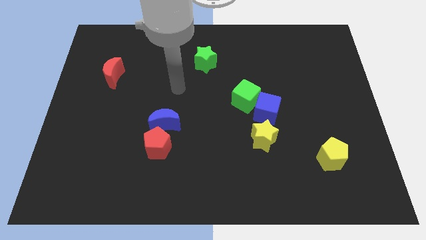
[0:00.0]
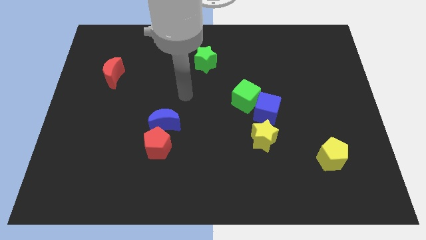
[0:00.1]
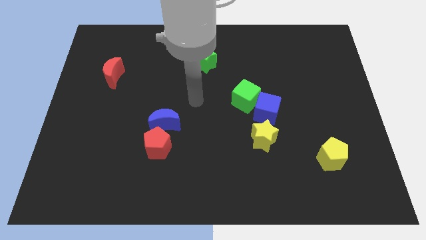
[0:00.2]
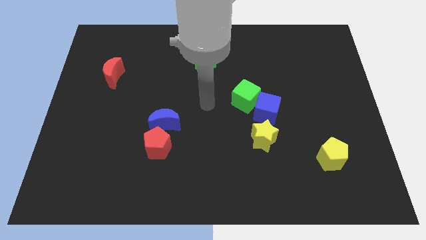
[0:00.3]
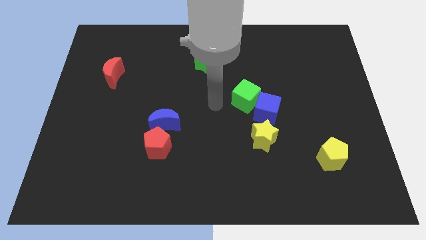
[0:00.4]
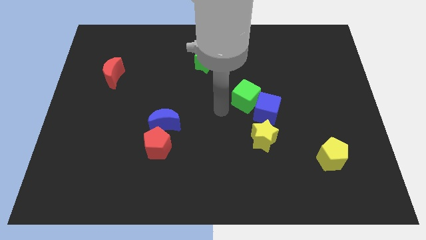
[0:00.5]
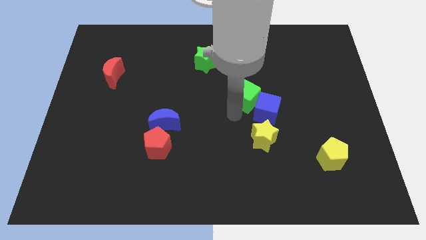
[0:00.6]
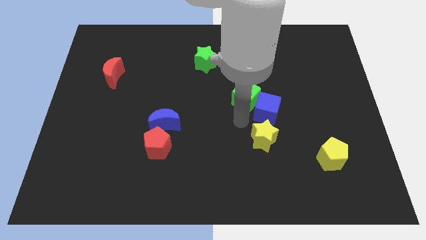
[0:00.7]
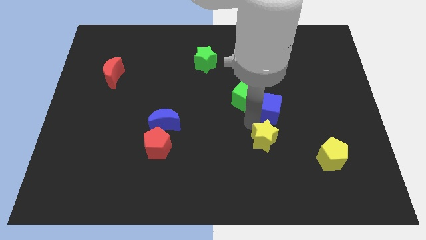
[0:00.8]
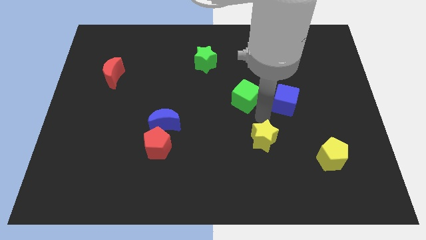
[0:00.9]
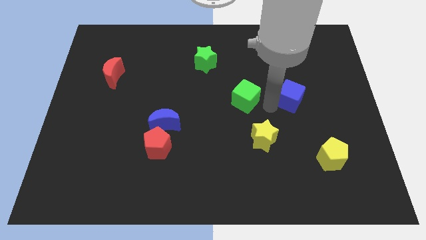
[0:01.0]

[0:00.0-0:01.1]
separate the green cube from the blue cube

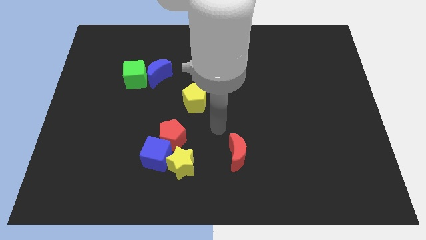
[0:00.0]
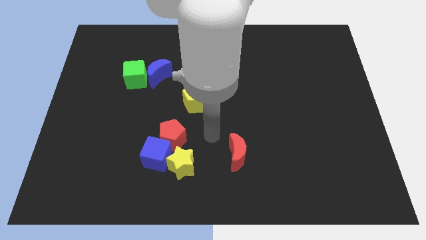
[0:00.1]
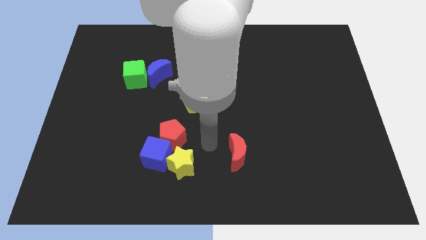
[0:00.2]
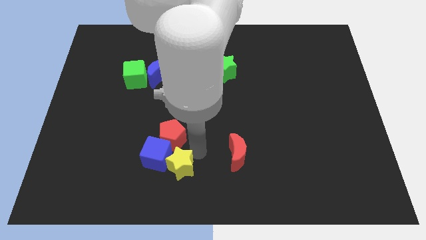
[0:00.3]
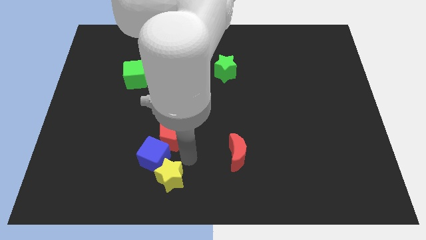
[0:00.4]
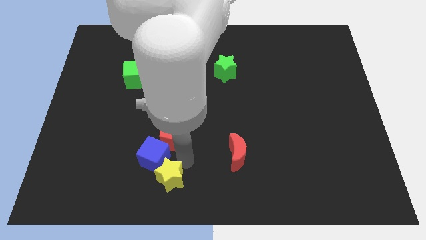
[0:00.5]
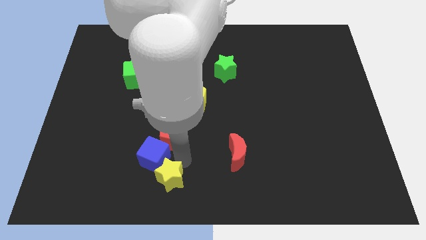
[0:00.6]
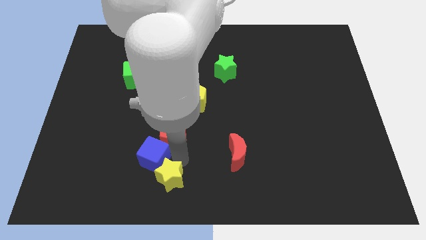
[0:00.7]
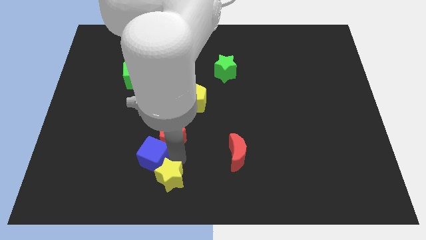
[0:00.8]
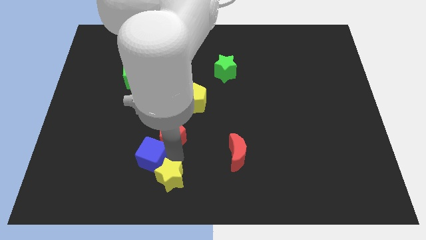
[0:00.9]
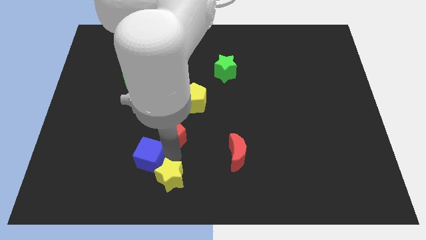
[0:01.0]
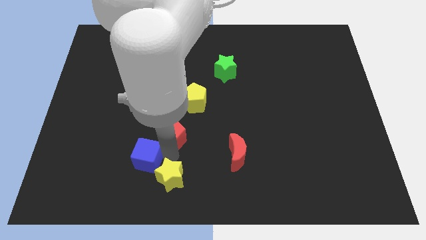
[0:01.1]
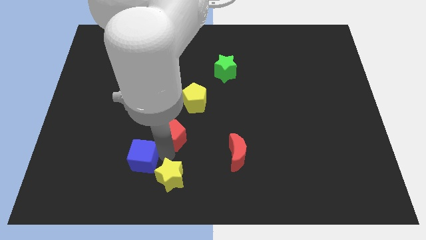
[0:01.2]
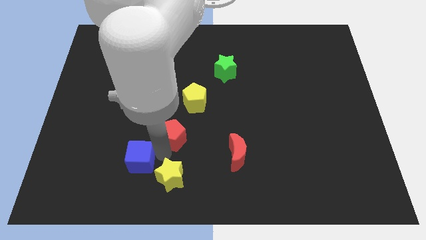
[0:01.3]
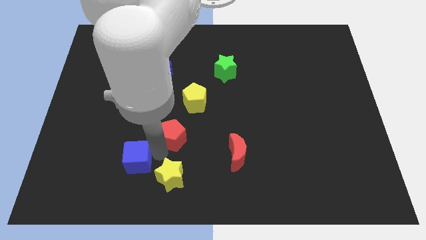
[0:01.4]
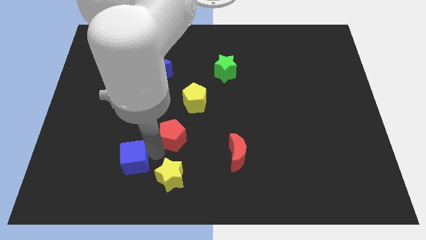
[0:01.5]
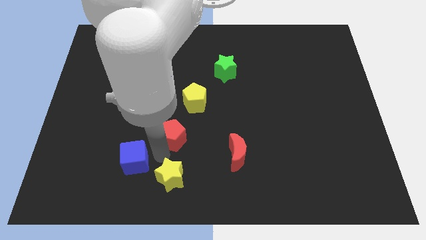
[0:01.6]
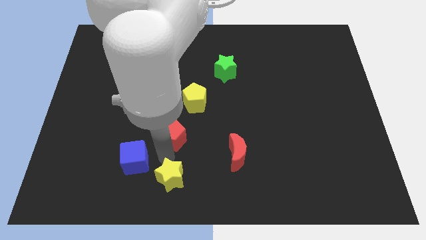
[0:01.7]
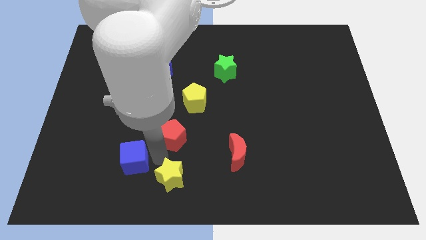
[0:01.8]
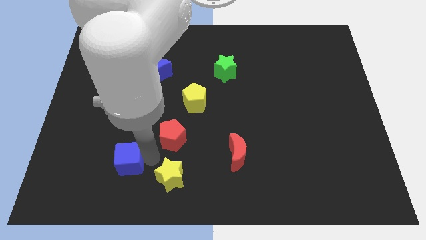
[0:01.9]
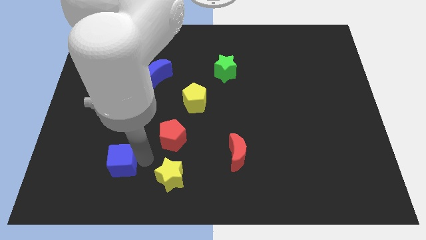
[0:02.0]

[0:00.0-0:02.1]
separate the blue cube from the red pentagon and yellow star

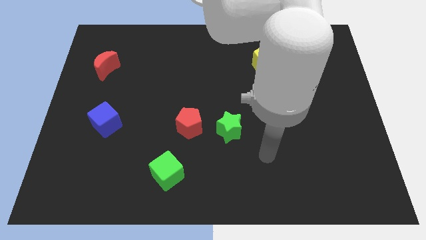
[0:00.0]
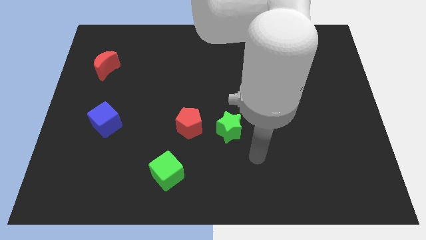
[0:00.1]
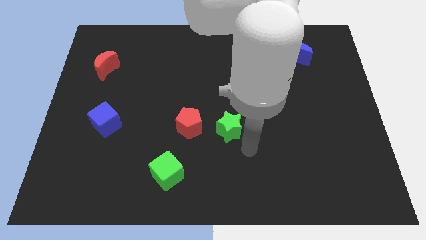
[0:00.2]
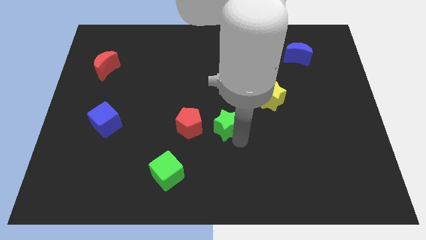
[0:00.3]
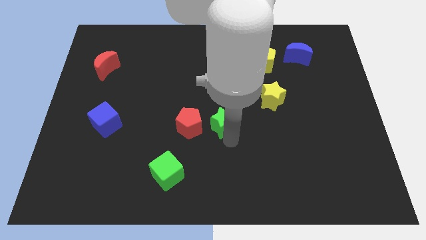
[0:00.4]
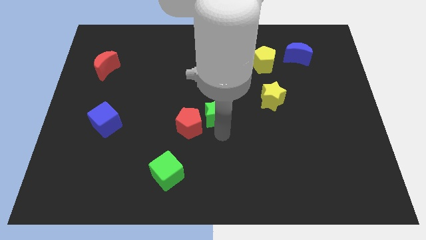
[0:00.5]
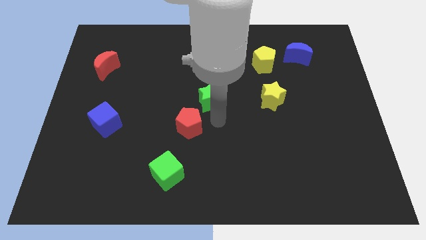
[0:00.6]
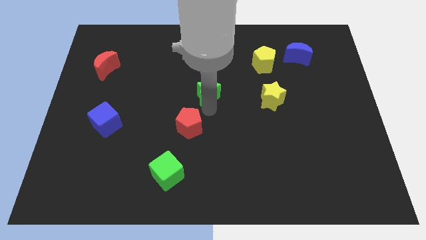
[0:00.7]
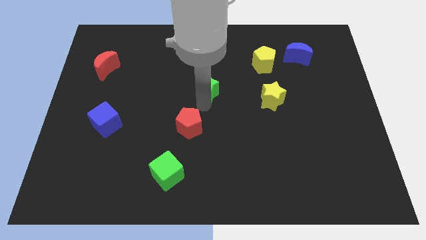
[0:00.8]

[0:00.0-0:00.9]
move the red pentagon away from the green star

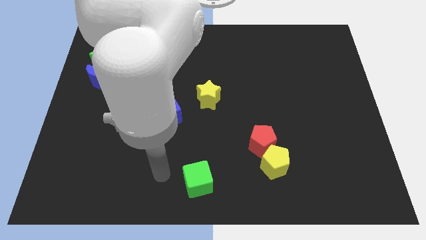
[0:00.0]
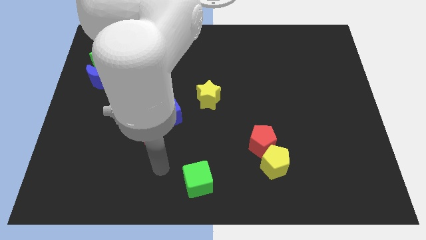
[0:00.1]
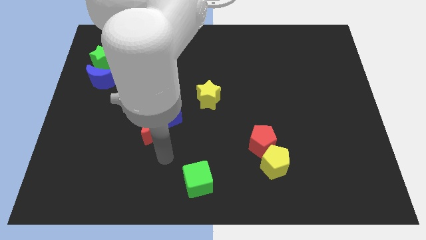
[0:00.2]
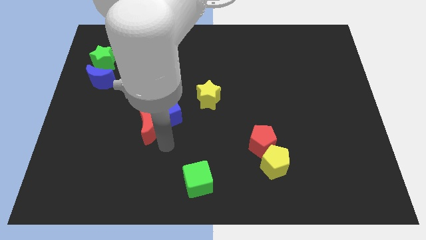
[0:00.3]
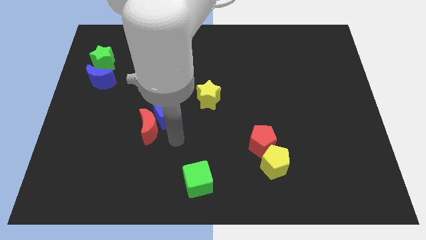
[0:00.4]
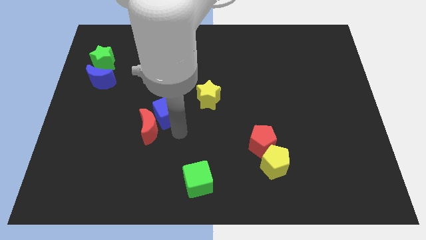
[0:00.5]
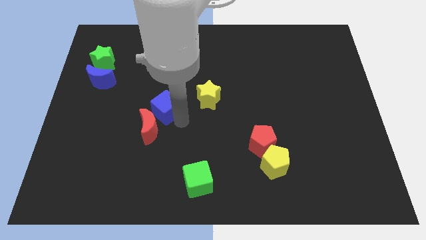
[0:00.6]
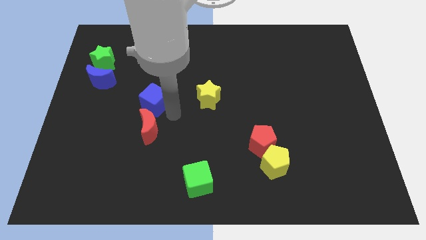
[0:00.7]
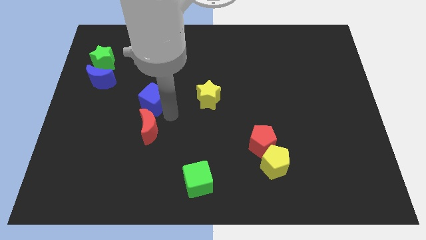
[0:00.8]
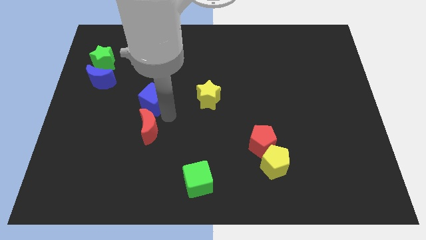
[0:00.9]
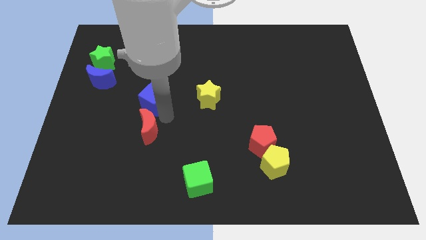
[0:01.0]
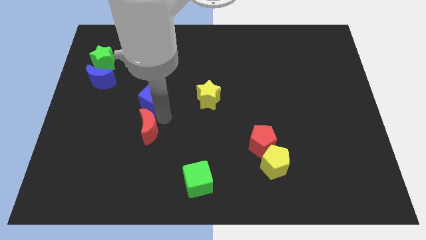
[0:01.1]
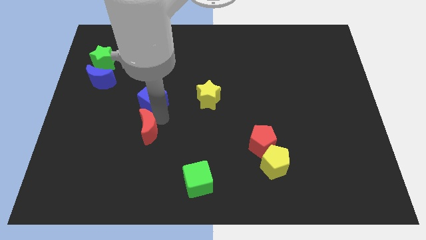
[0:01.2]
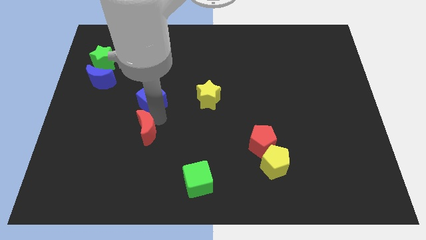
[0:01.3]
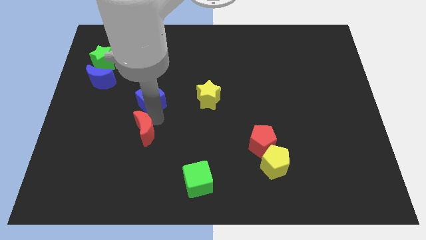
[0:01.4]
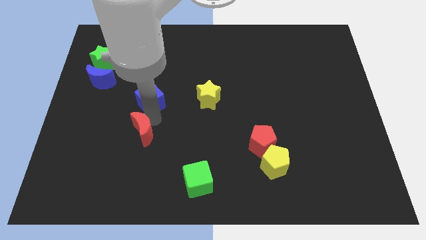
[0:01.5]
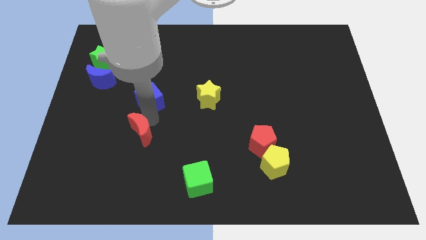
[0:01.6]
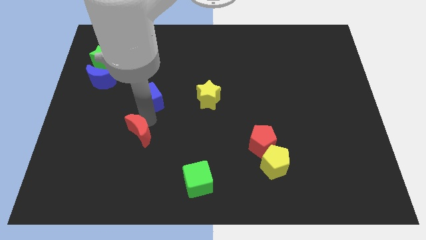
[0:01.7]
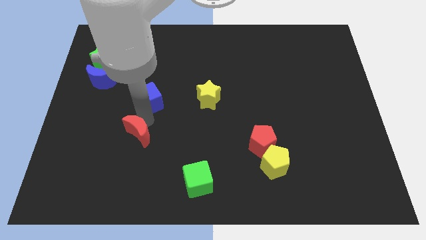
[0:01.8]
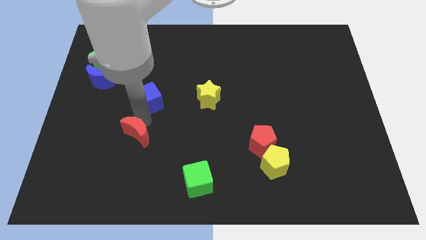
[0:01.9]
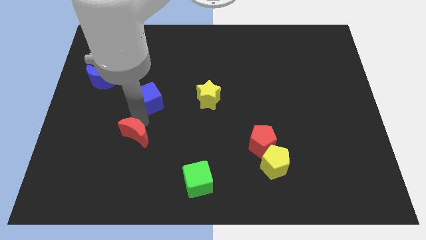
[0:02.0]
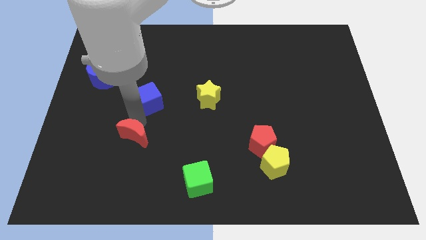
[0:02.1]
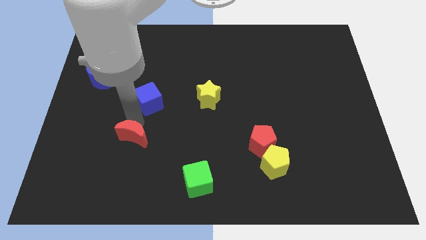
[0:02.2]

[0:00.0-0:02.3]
move the red moon away from the blue cube

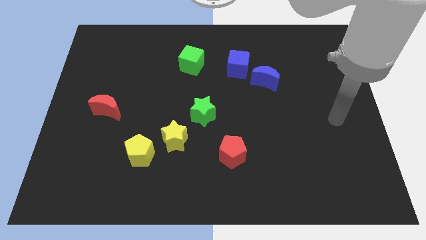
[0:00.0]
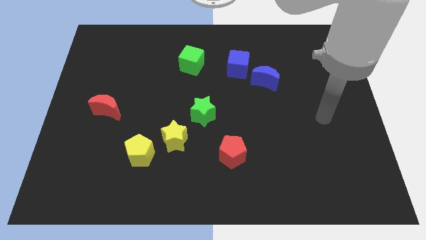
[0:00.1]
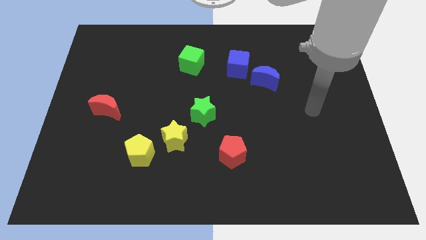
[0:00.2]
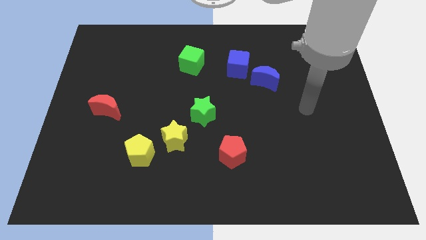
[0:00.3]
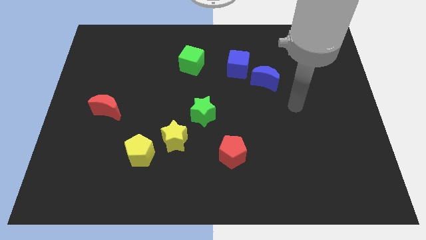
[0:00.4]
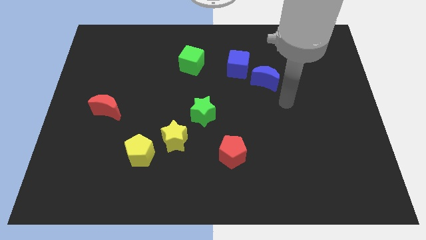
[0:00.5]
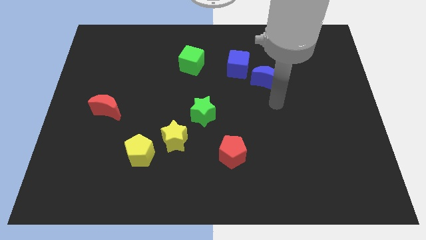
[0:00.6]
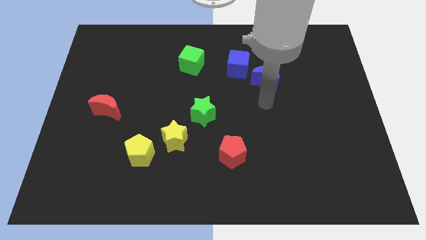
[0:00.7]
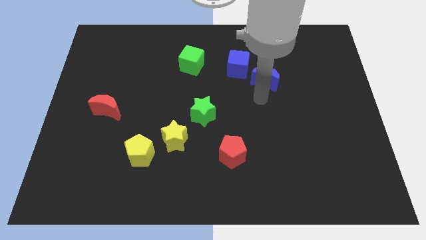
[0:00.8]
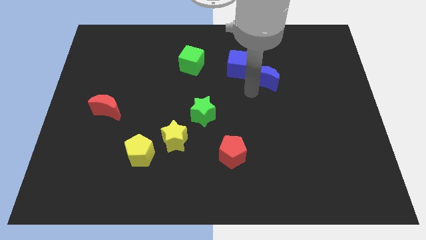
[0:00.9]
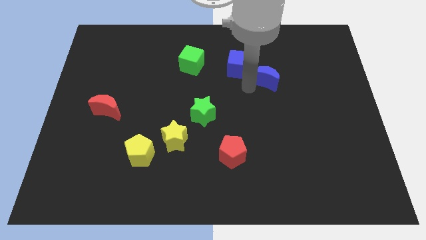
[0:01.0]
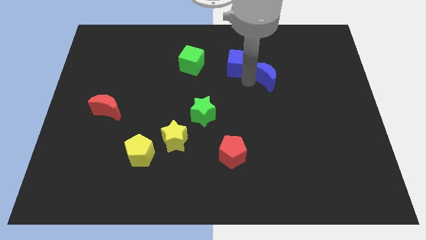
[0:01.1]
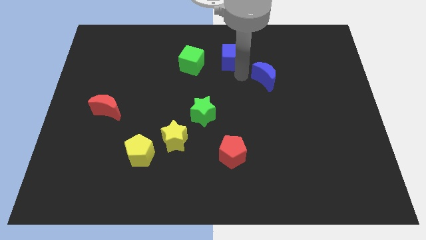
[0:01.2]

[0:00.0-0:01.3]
separate the blue moon from the blue cube

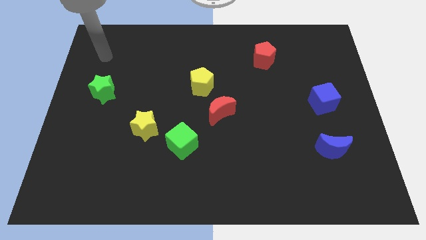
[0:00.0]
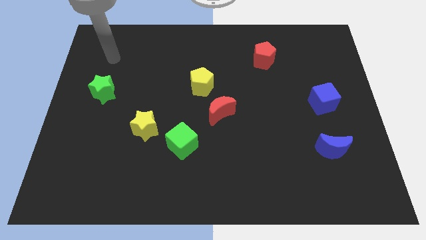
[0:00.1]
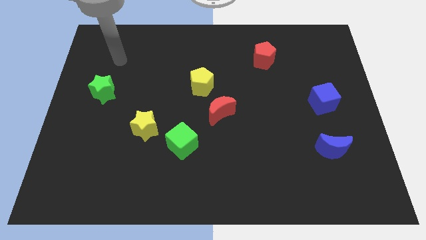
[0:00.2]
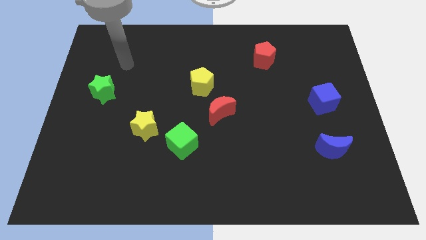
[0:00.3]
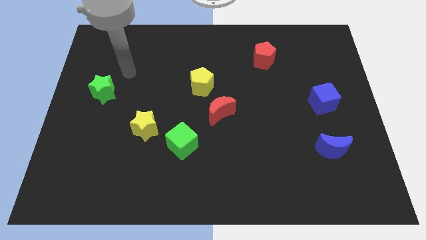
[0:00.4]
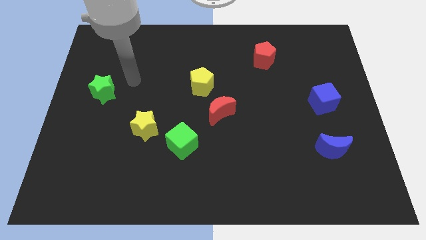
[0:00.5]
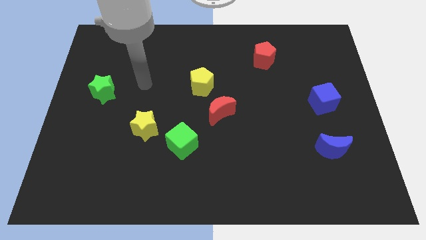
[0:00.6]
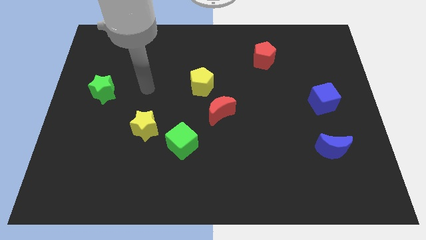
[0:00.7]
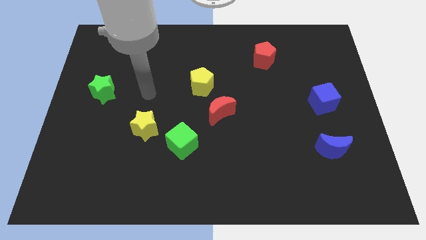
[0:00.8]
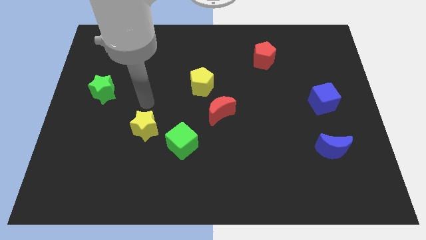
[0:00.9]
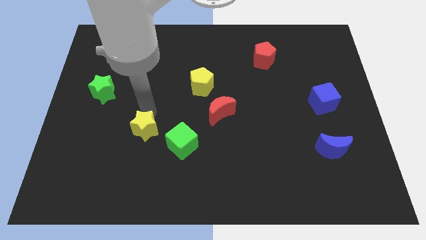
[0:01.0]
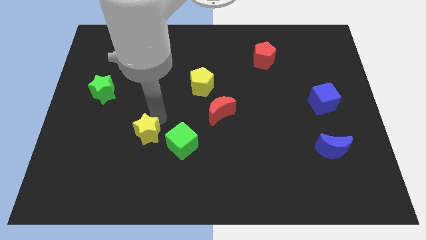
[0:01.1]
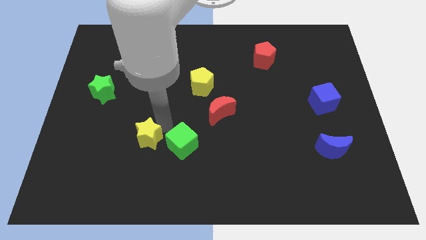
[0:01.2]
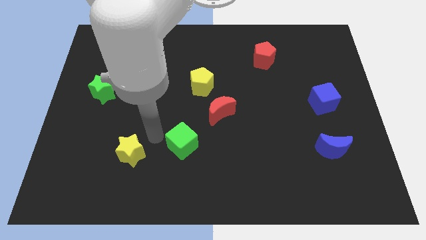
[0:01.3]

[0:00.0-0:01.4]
separate the green cube from the yellow star

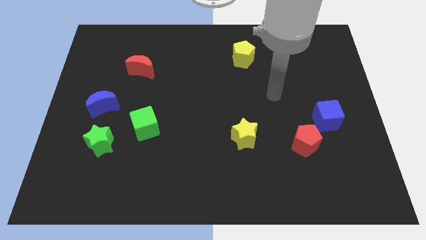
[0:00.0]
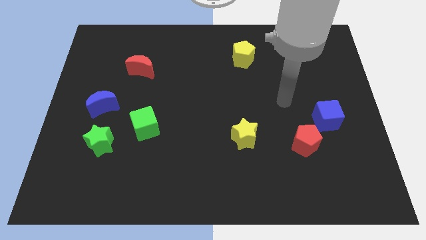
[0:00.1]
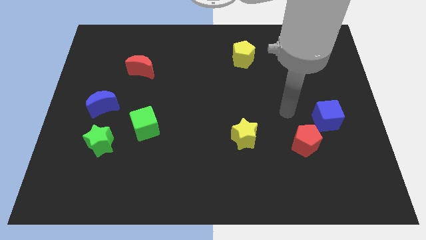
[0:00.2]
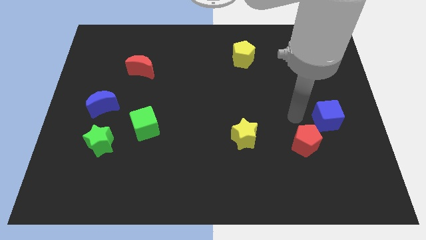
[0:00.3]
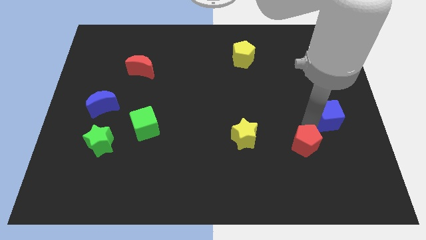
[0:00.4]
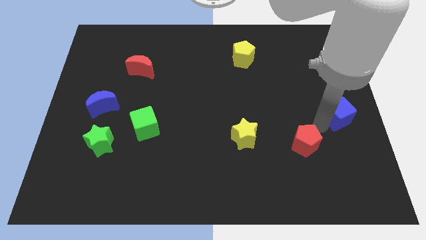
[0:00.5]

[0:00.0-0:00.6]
pull the red pentagon apart from the blue cube
